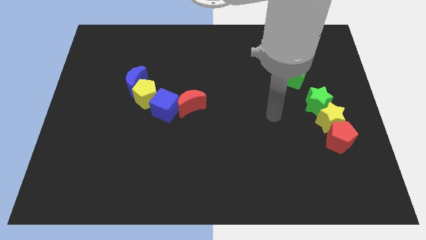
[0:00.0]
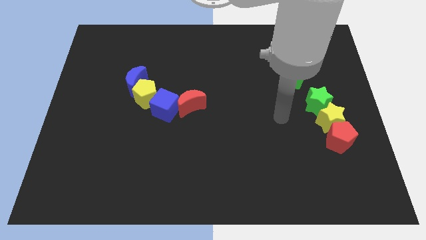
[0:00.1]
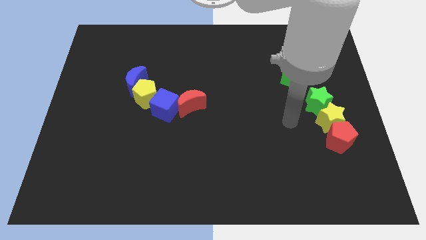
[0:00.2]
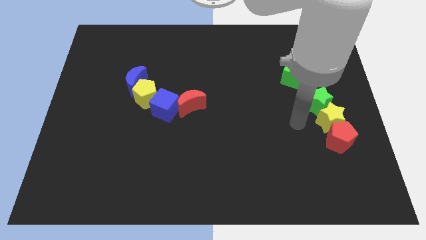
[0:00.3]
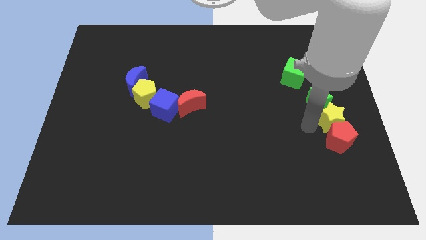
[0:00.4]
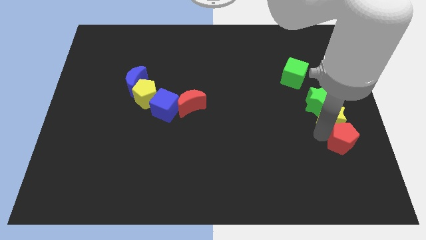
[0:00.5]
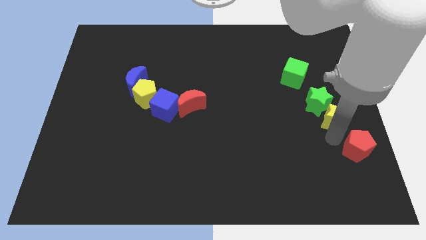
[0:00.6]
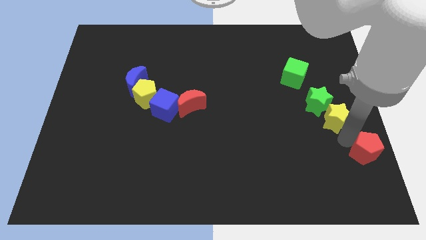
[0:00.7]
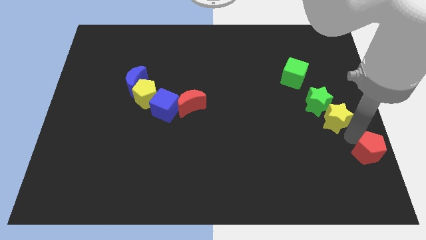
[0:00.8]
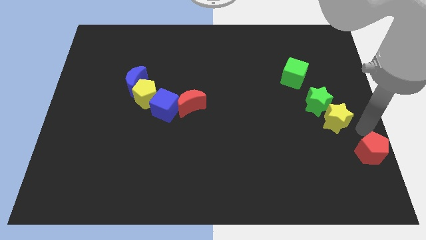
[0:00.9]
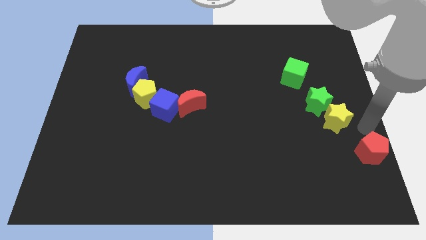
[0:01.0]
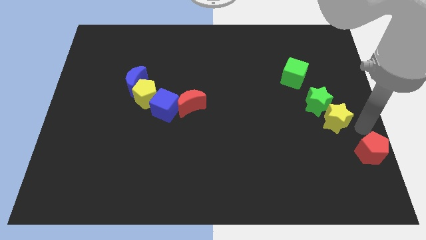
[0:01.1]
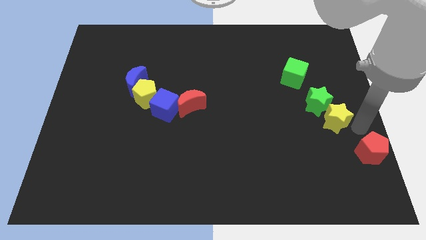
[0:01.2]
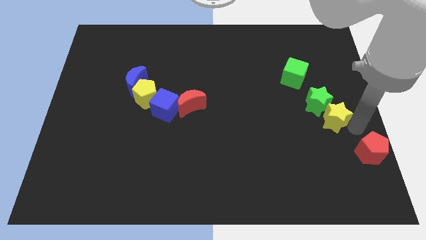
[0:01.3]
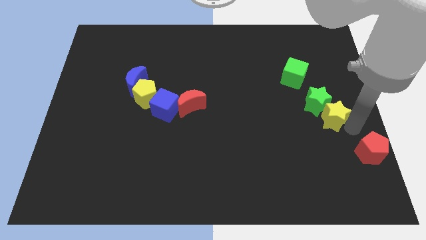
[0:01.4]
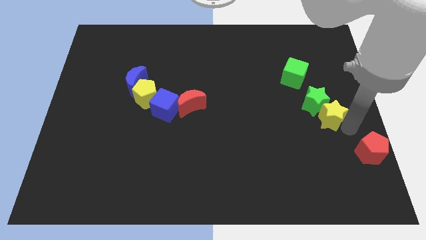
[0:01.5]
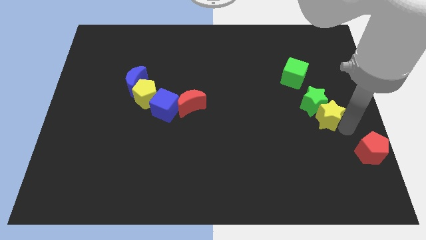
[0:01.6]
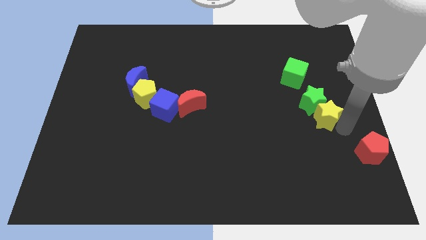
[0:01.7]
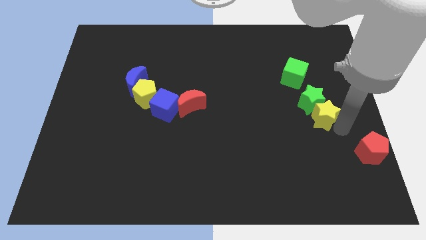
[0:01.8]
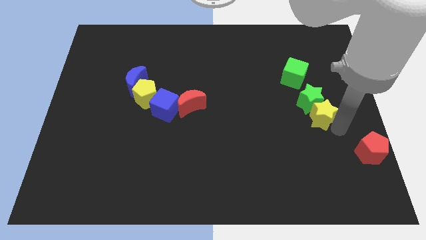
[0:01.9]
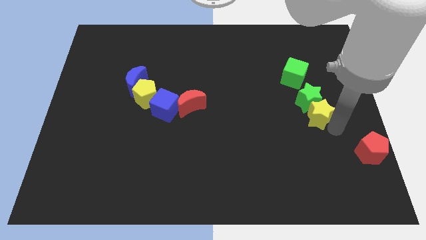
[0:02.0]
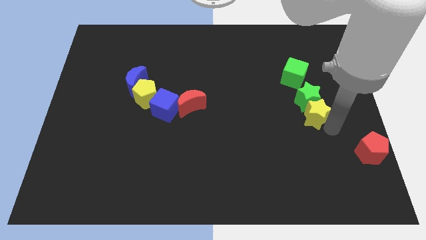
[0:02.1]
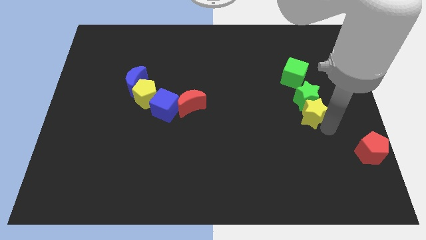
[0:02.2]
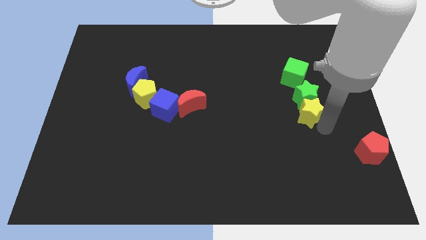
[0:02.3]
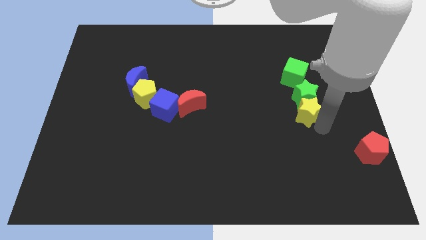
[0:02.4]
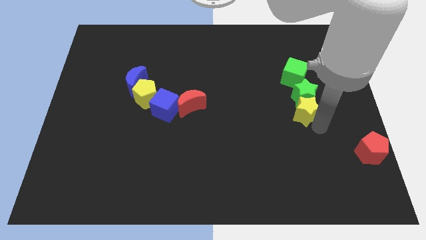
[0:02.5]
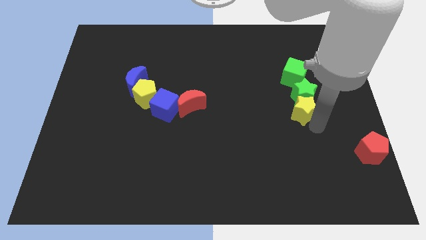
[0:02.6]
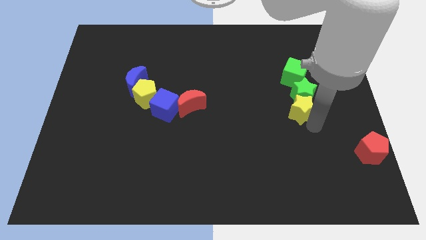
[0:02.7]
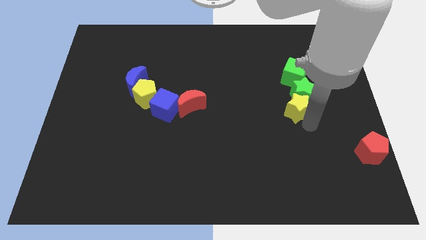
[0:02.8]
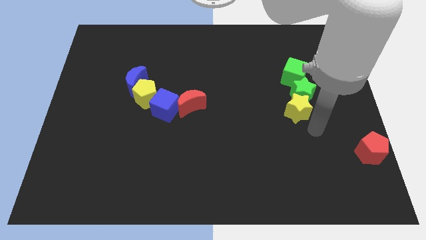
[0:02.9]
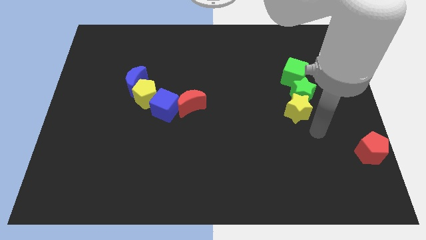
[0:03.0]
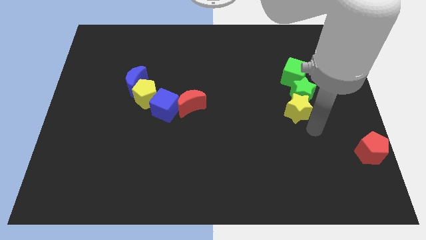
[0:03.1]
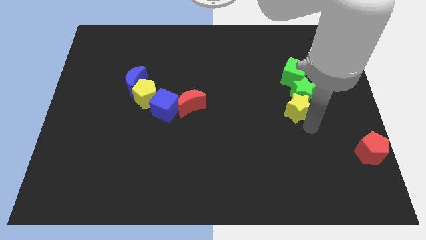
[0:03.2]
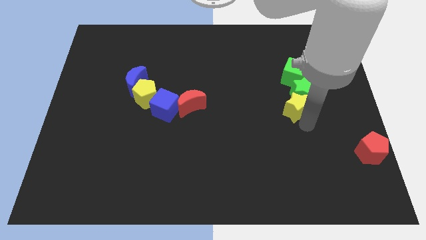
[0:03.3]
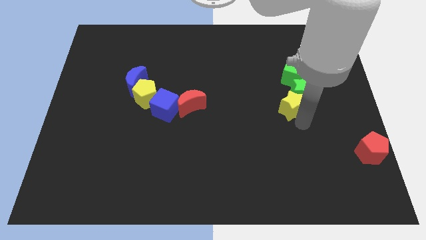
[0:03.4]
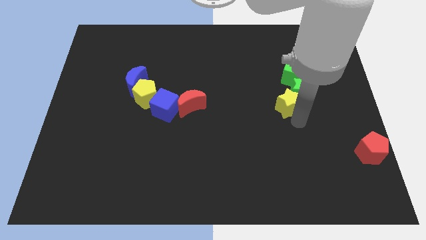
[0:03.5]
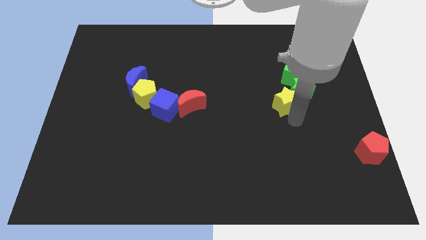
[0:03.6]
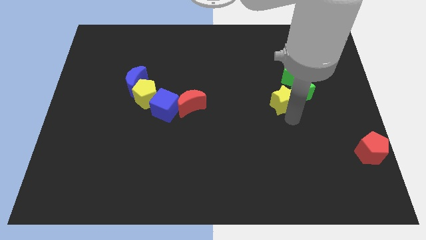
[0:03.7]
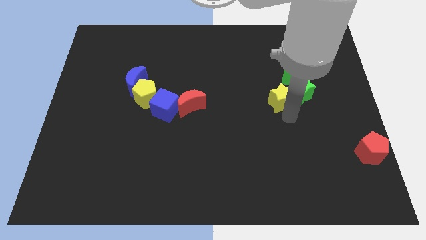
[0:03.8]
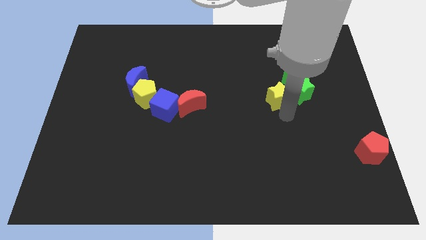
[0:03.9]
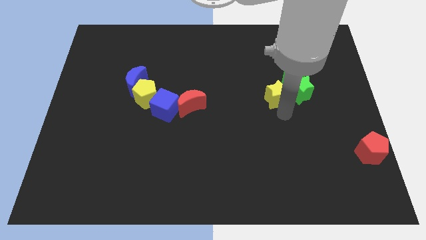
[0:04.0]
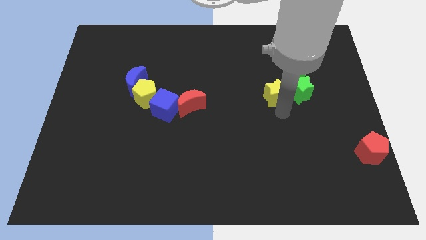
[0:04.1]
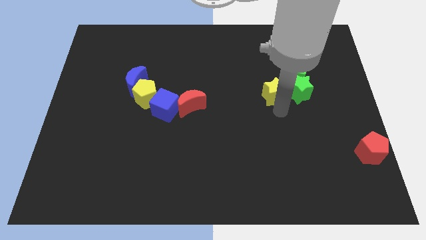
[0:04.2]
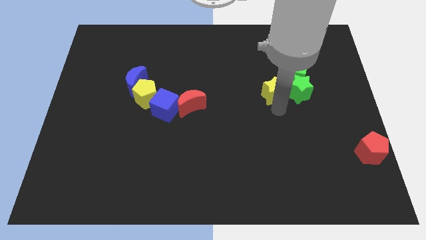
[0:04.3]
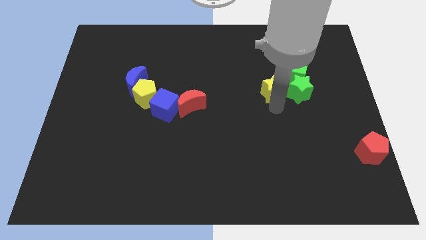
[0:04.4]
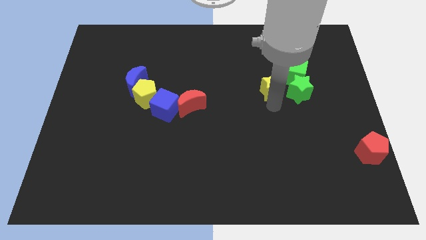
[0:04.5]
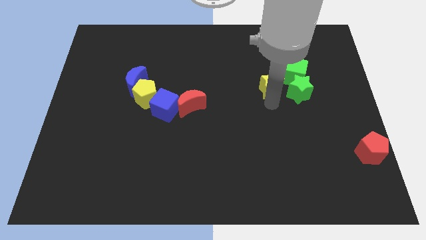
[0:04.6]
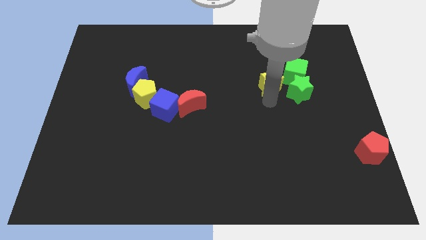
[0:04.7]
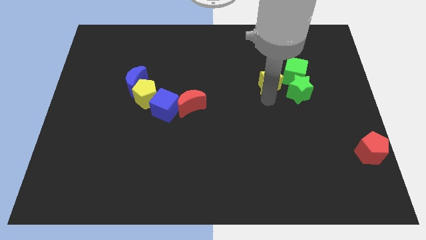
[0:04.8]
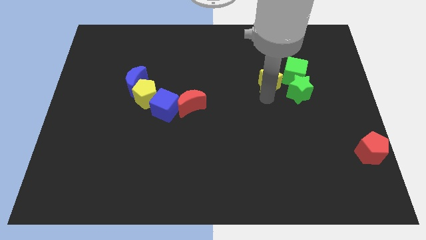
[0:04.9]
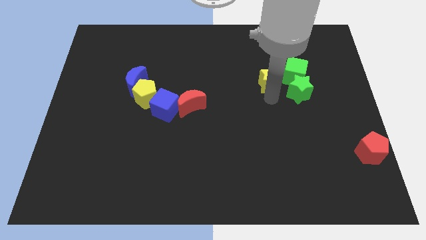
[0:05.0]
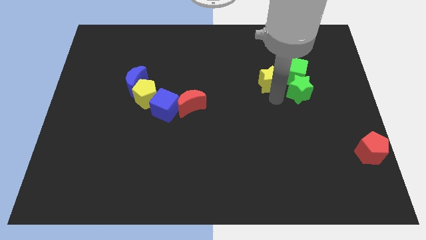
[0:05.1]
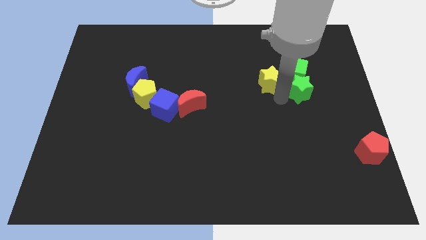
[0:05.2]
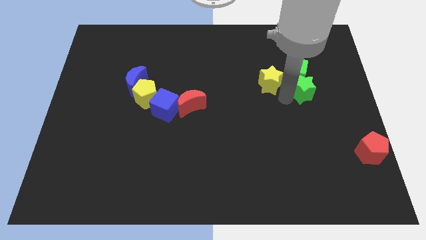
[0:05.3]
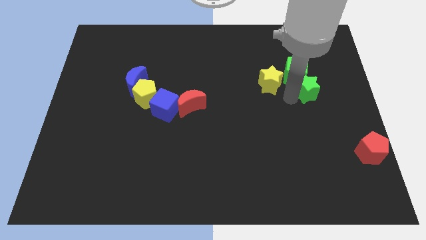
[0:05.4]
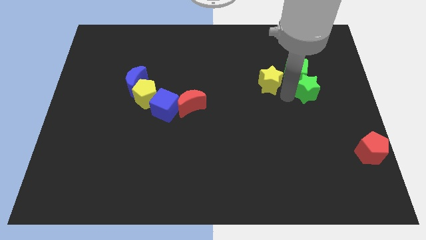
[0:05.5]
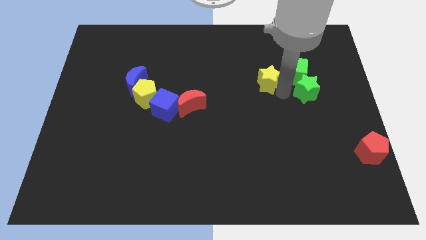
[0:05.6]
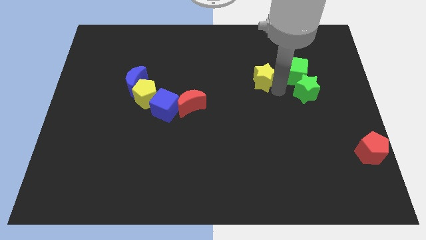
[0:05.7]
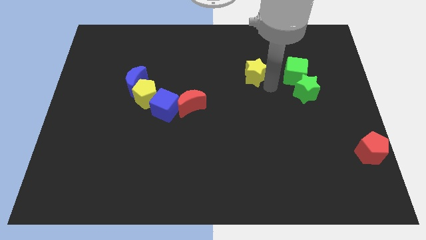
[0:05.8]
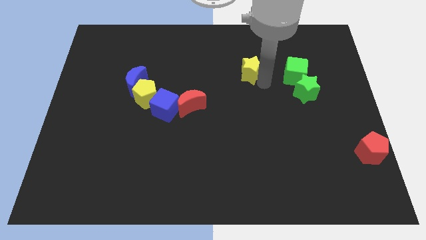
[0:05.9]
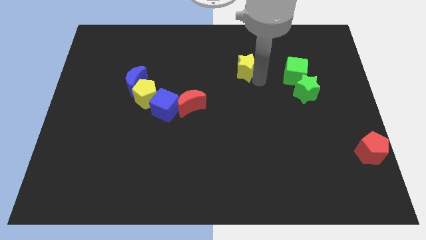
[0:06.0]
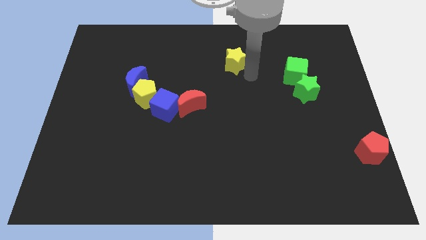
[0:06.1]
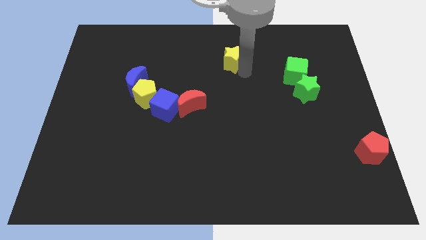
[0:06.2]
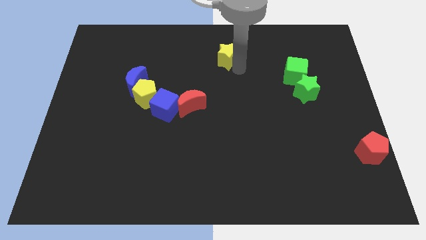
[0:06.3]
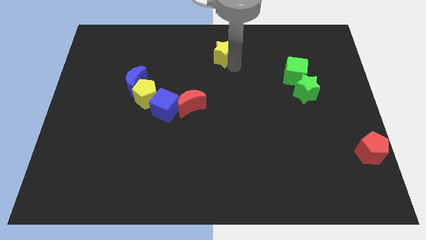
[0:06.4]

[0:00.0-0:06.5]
slide the yellow star to the towards your base

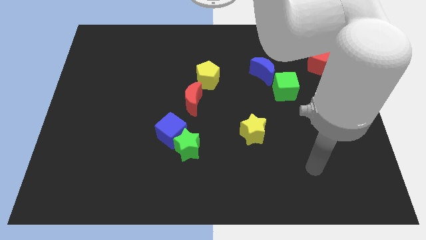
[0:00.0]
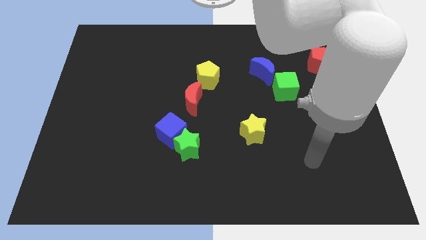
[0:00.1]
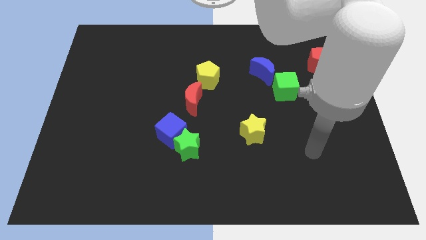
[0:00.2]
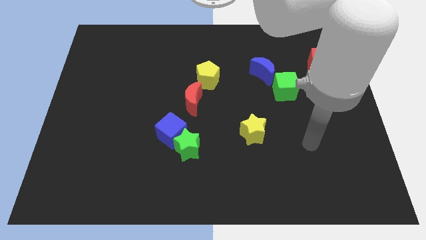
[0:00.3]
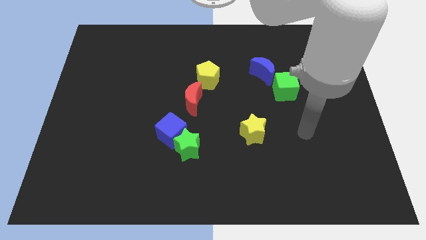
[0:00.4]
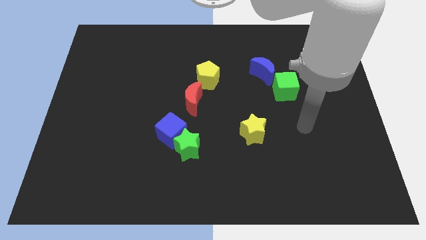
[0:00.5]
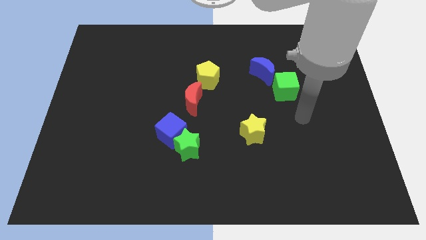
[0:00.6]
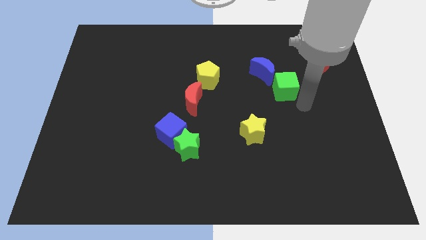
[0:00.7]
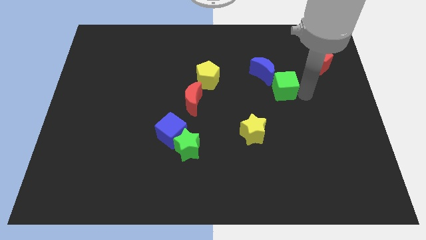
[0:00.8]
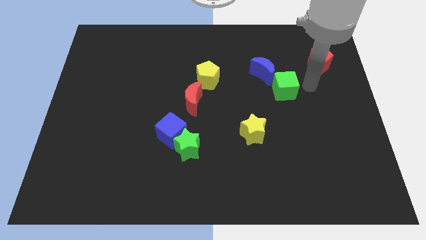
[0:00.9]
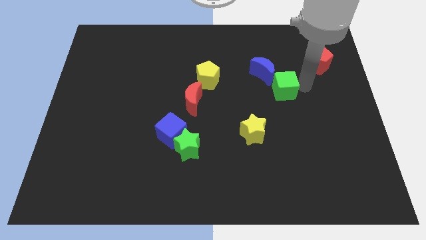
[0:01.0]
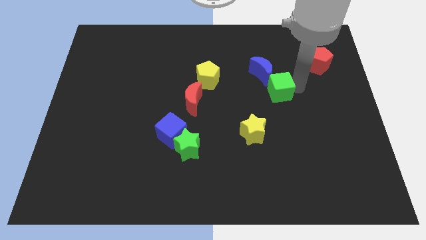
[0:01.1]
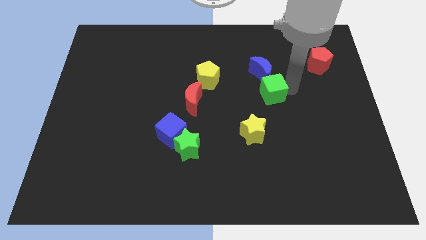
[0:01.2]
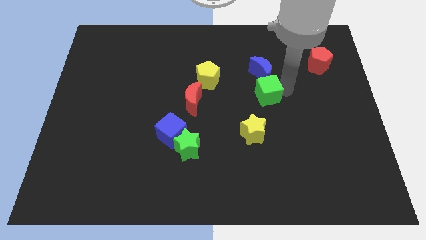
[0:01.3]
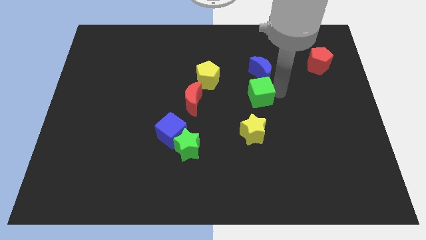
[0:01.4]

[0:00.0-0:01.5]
push the green cube to the middle
